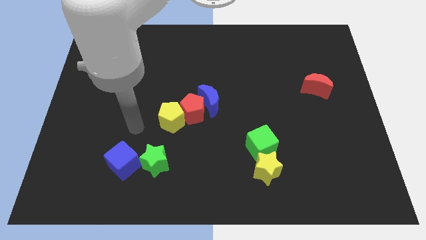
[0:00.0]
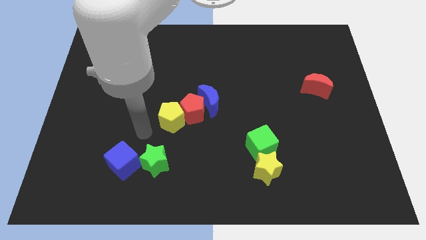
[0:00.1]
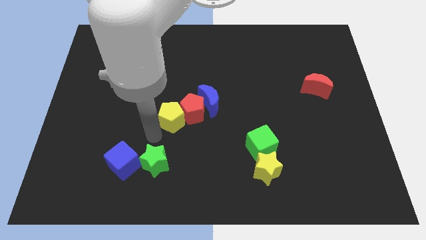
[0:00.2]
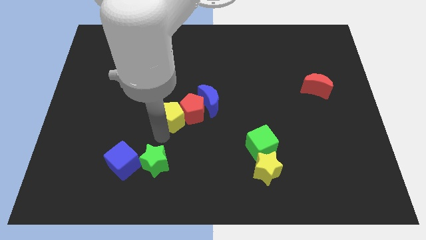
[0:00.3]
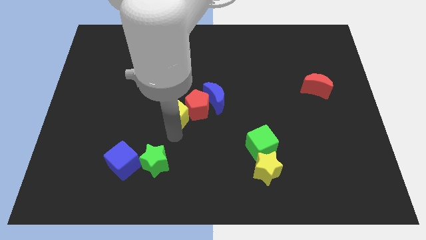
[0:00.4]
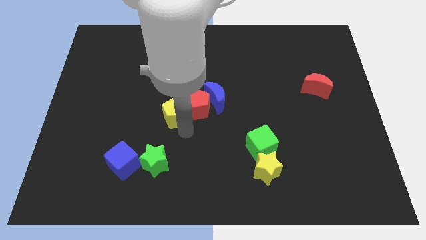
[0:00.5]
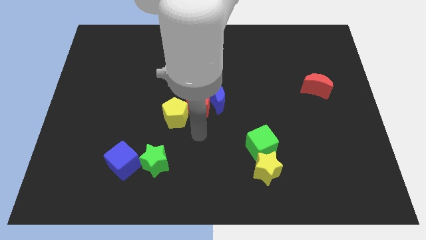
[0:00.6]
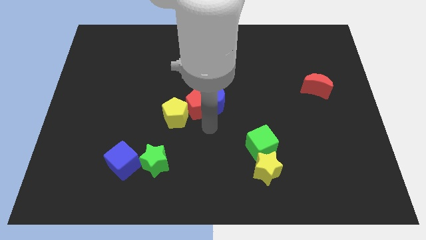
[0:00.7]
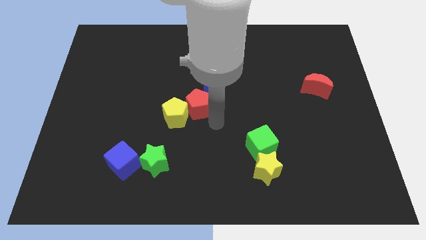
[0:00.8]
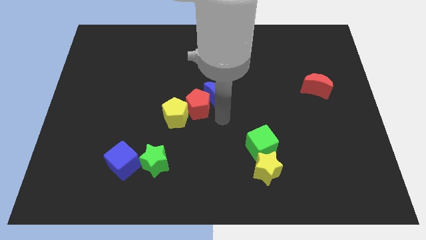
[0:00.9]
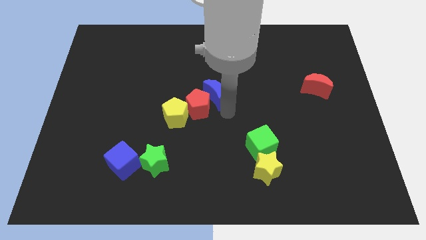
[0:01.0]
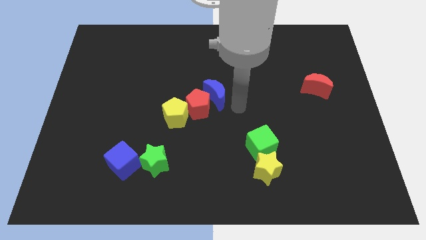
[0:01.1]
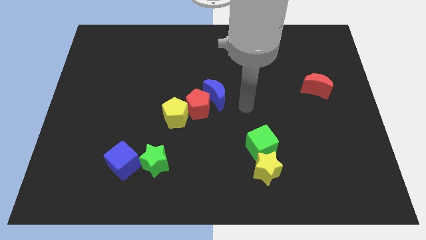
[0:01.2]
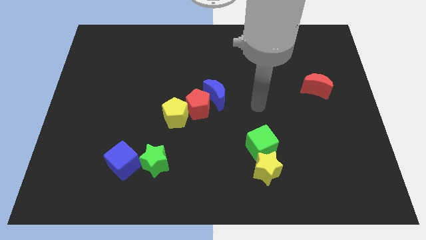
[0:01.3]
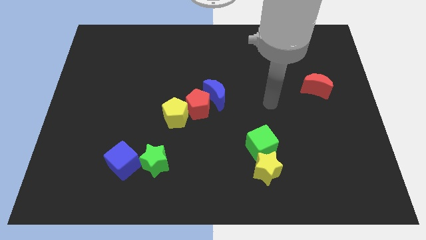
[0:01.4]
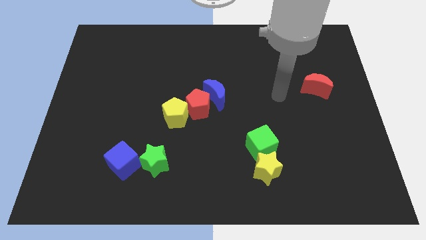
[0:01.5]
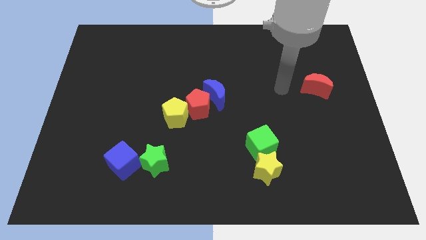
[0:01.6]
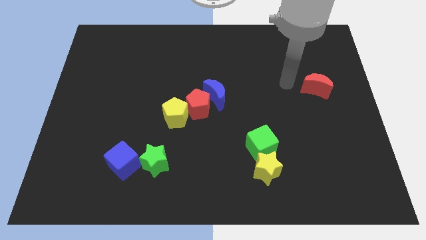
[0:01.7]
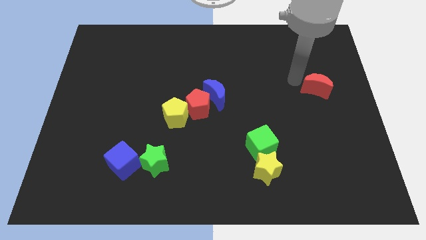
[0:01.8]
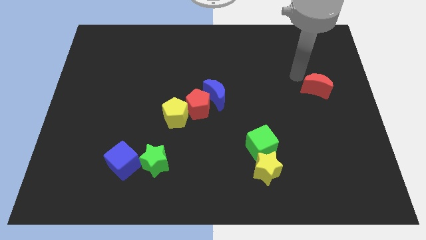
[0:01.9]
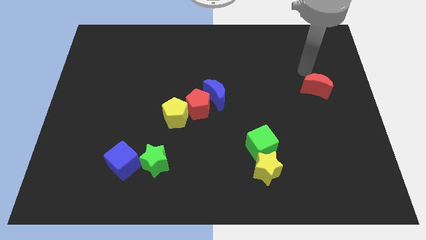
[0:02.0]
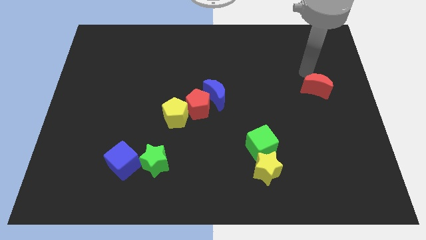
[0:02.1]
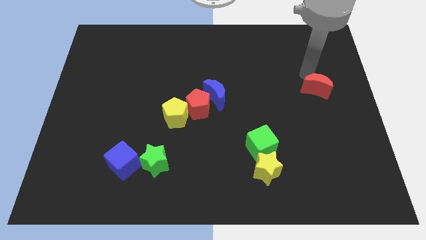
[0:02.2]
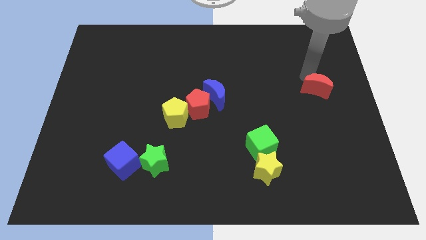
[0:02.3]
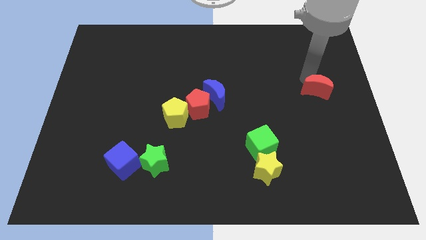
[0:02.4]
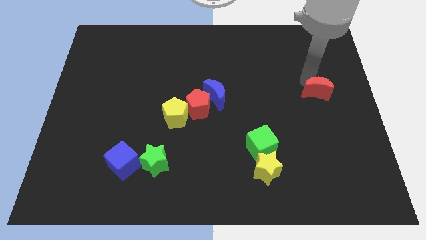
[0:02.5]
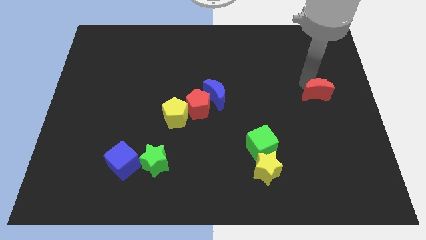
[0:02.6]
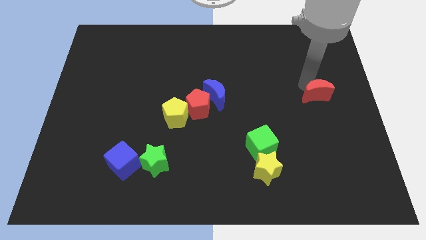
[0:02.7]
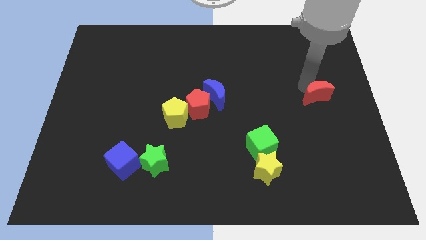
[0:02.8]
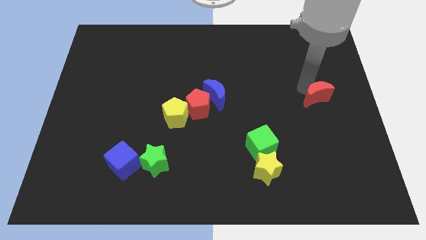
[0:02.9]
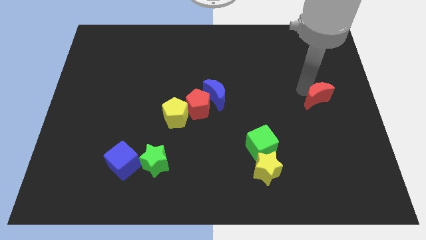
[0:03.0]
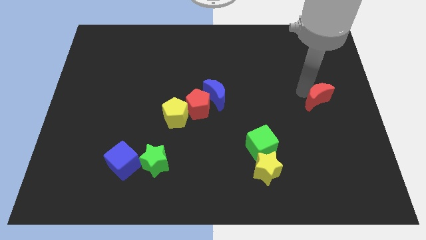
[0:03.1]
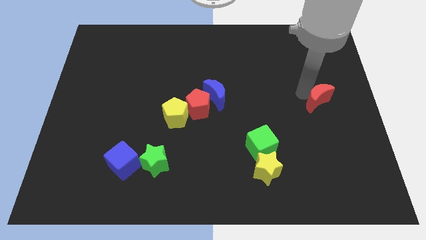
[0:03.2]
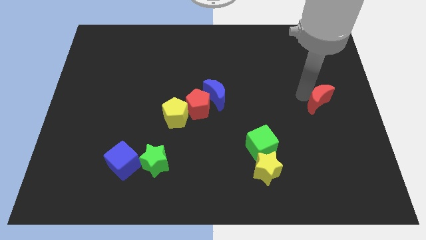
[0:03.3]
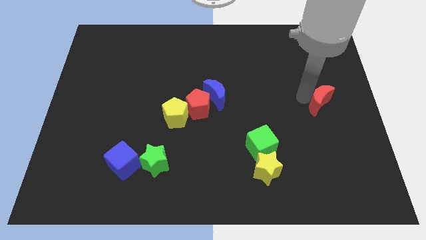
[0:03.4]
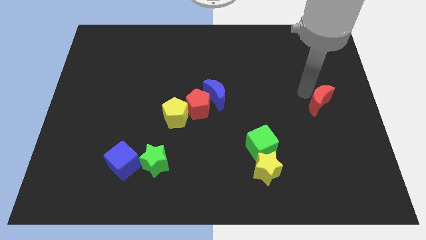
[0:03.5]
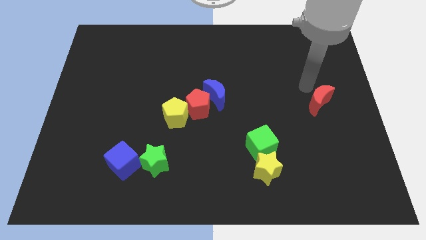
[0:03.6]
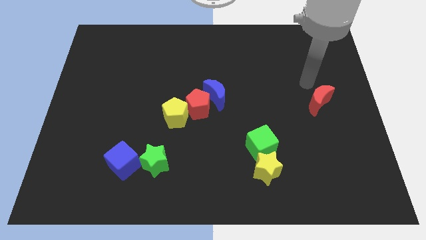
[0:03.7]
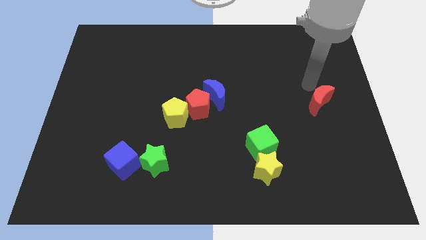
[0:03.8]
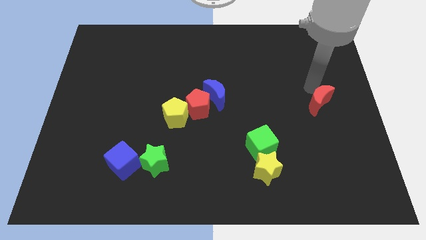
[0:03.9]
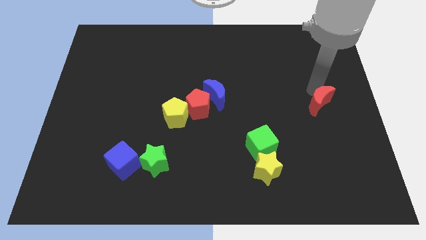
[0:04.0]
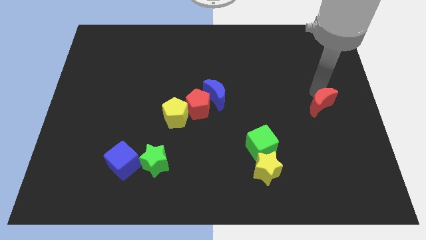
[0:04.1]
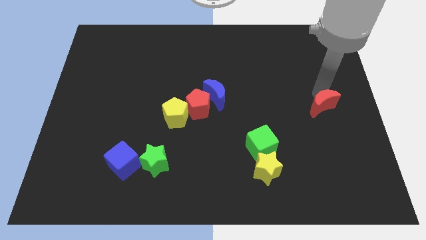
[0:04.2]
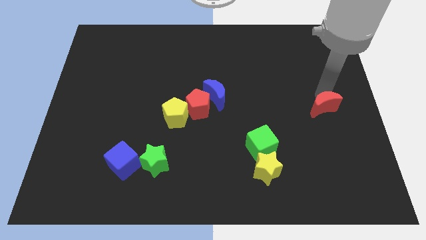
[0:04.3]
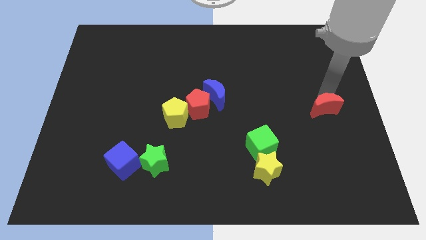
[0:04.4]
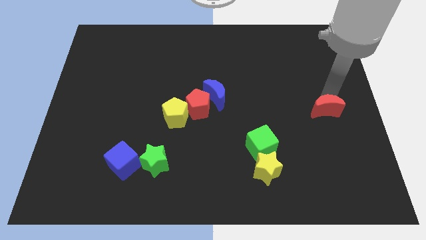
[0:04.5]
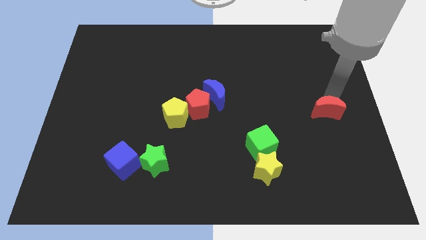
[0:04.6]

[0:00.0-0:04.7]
slide the red moon somewhat downwards

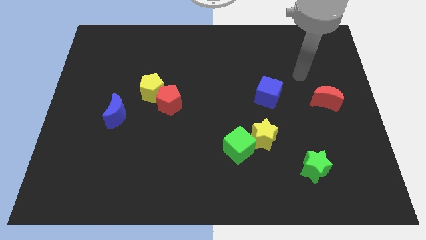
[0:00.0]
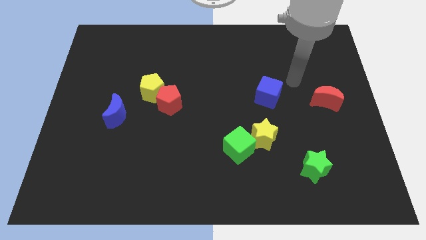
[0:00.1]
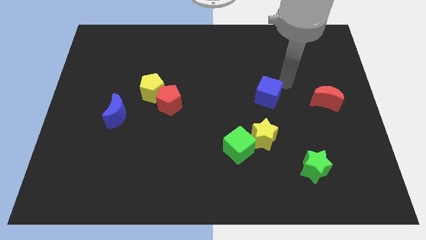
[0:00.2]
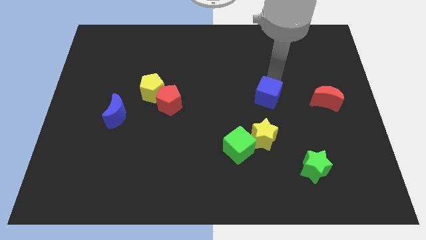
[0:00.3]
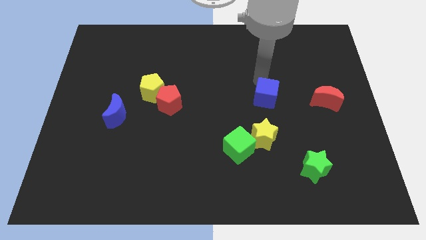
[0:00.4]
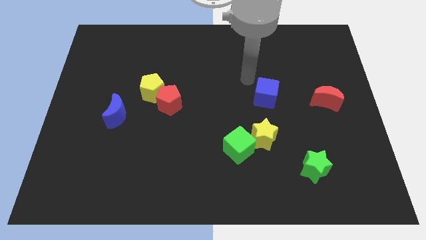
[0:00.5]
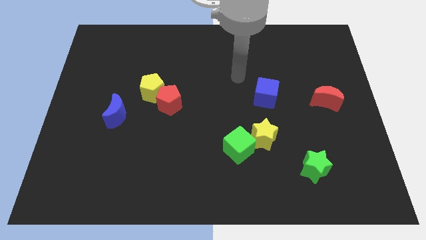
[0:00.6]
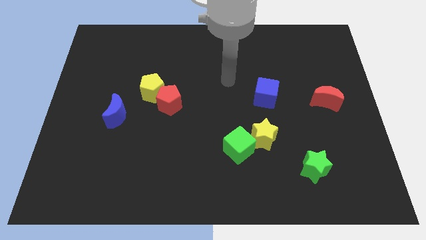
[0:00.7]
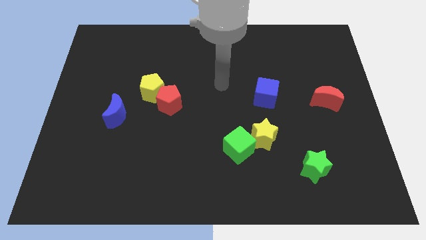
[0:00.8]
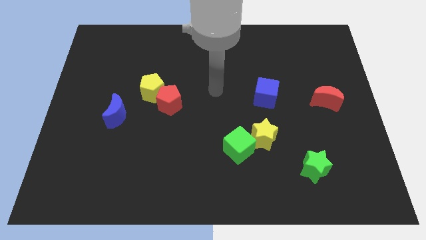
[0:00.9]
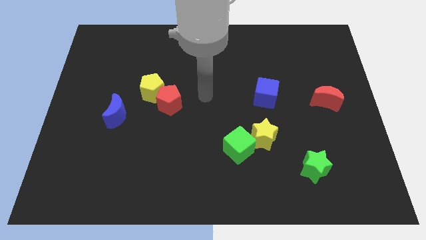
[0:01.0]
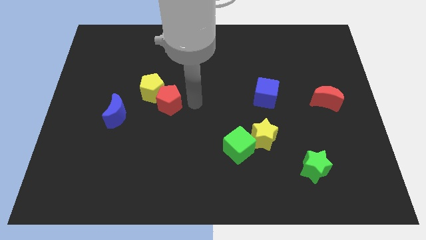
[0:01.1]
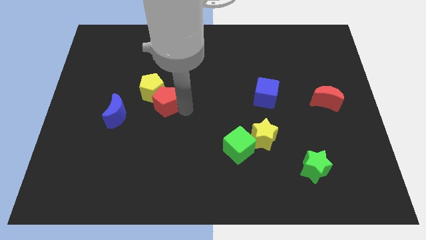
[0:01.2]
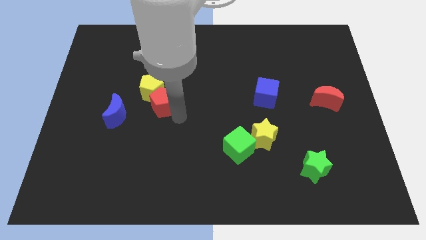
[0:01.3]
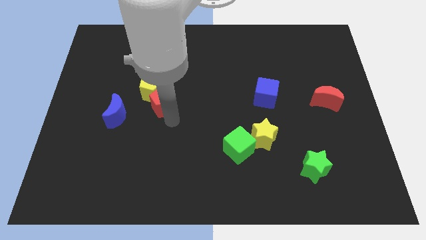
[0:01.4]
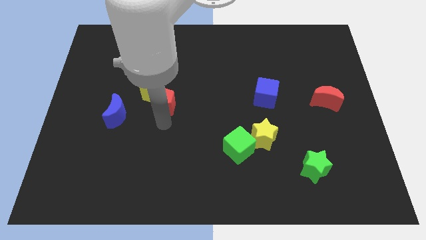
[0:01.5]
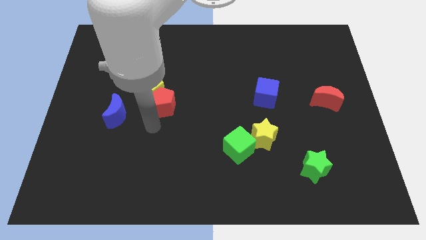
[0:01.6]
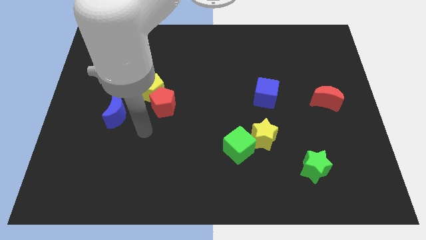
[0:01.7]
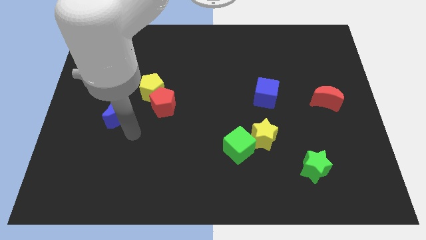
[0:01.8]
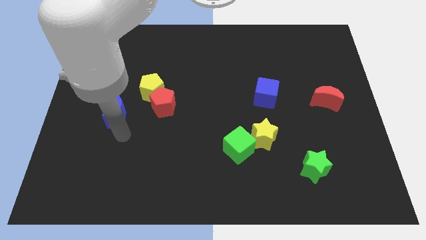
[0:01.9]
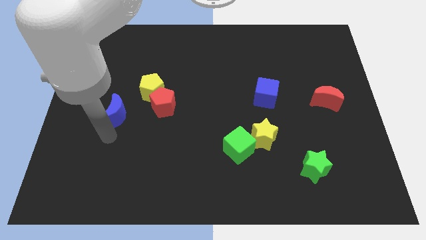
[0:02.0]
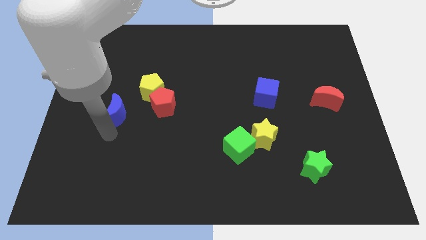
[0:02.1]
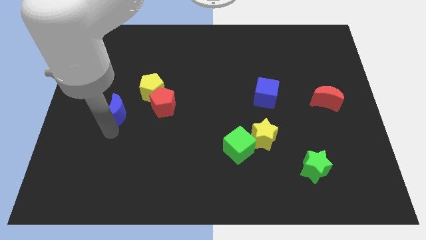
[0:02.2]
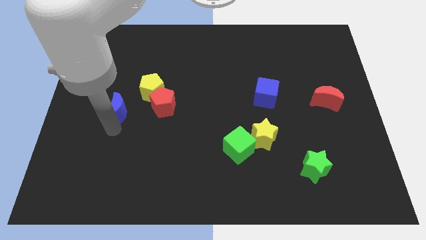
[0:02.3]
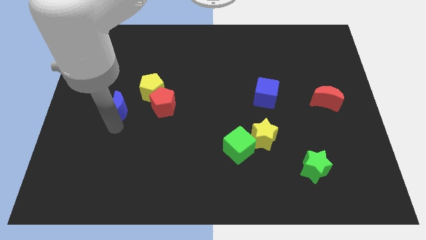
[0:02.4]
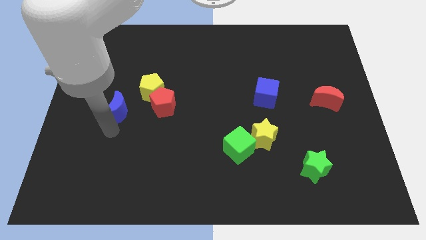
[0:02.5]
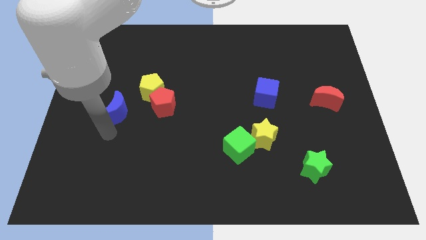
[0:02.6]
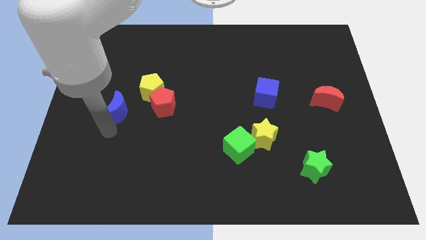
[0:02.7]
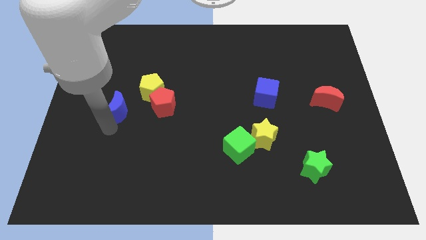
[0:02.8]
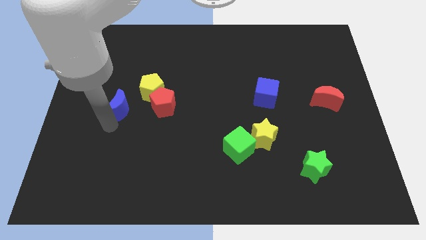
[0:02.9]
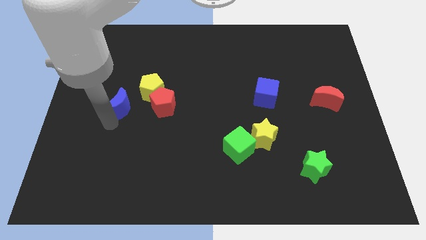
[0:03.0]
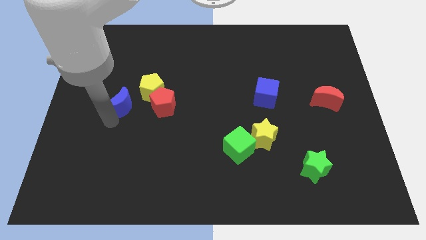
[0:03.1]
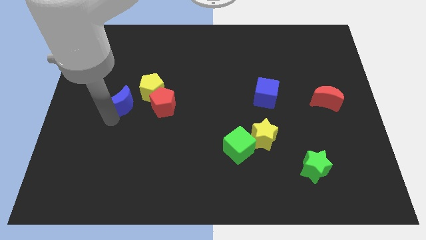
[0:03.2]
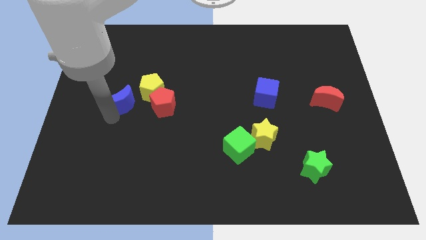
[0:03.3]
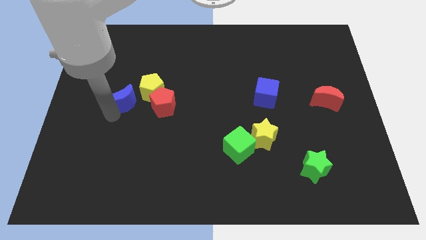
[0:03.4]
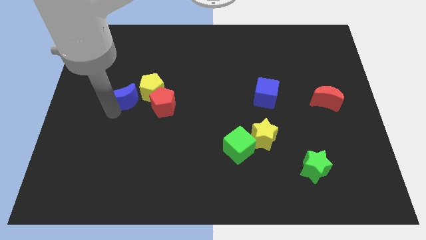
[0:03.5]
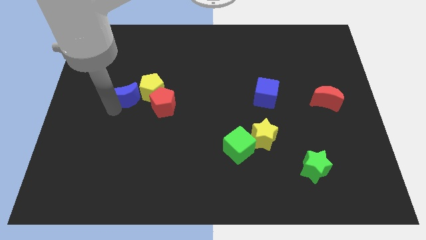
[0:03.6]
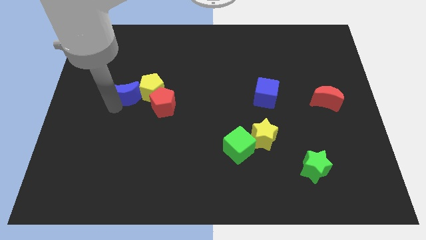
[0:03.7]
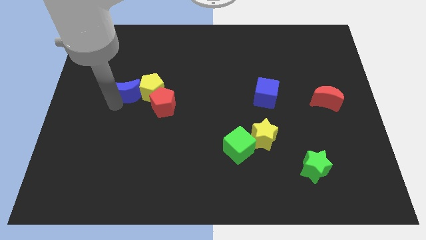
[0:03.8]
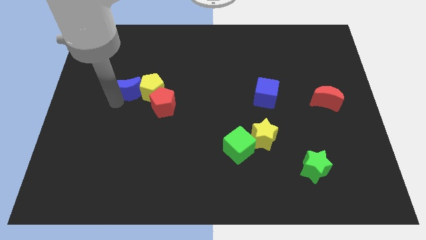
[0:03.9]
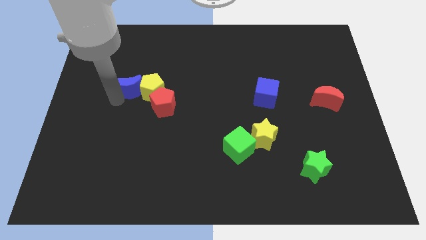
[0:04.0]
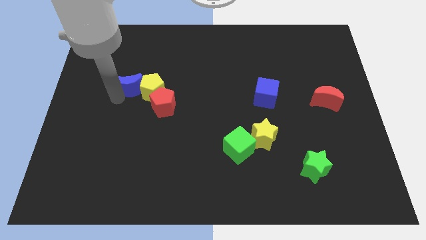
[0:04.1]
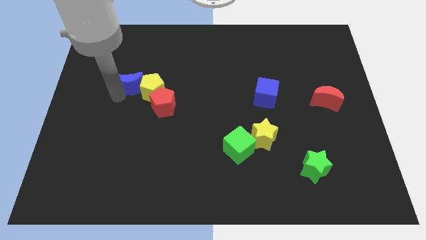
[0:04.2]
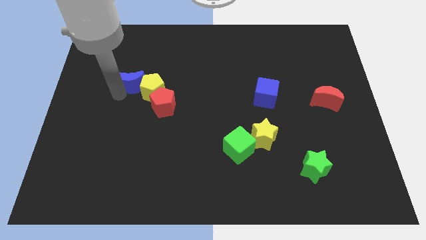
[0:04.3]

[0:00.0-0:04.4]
move the blue moon diagonally up and right a little
